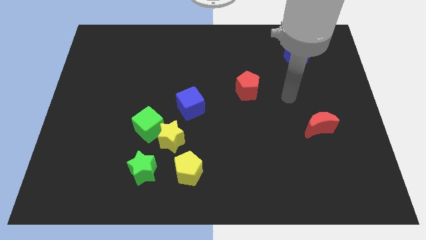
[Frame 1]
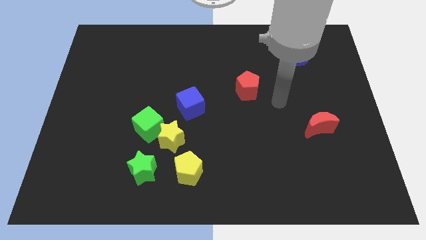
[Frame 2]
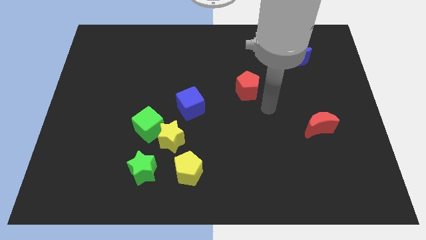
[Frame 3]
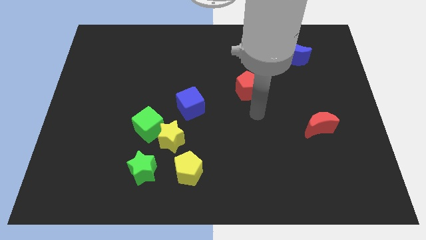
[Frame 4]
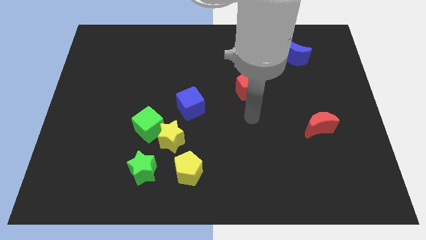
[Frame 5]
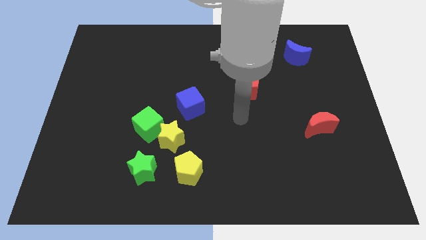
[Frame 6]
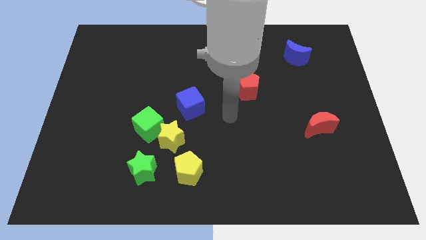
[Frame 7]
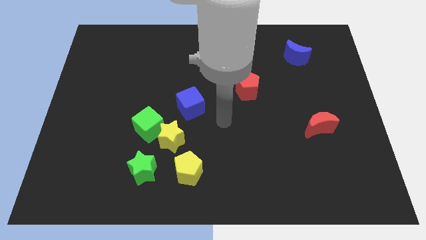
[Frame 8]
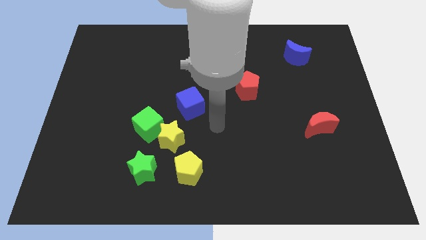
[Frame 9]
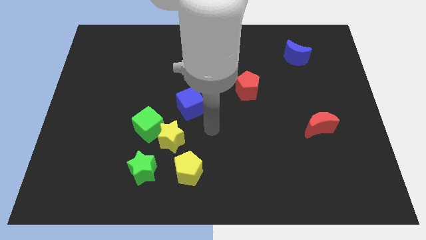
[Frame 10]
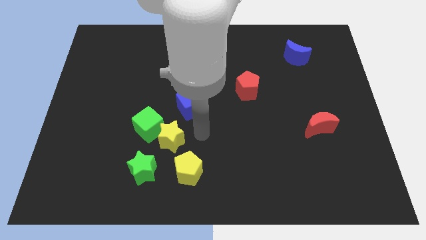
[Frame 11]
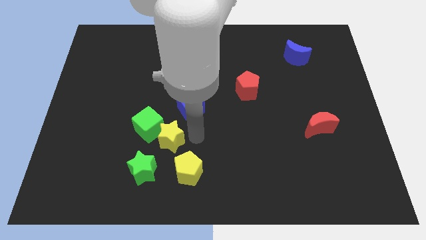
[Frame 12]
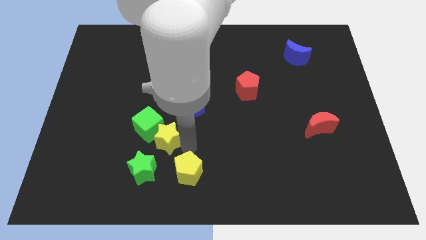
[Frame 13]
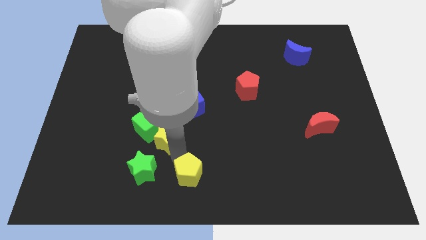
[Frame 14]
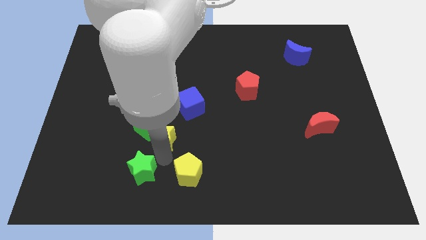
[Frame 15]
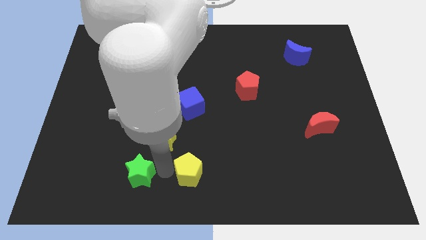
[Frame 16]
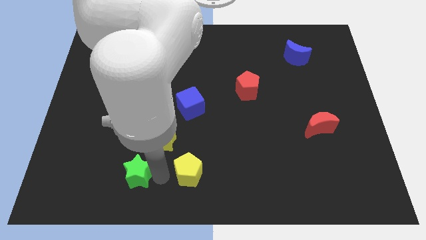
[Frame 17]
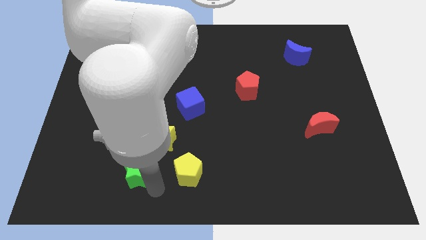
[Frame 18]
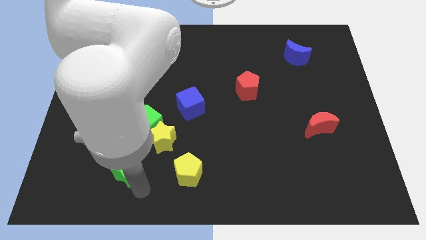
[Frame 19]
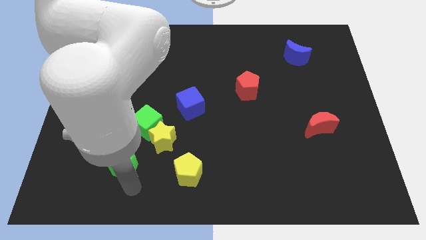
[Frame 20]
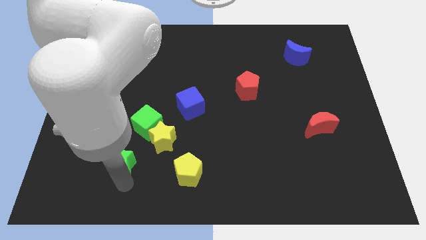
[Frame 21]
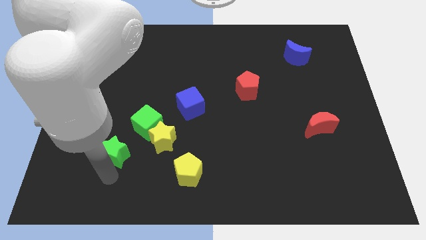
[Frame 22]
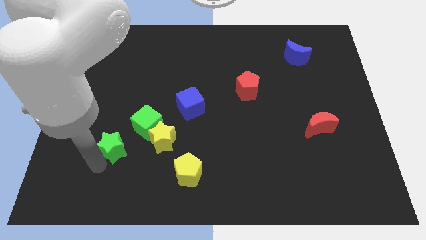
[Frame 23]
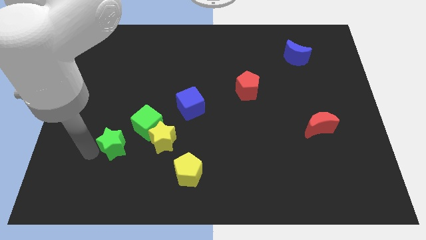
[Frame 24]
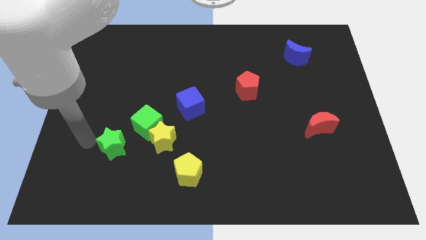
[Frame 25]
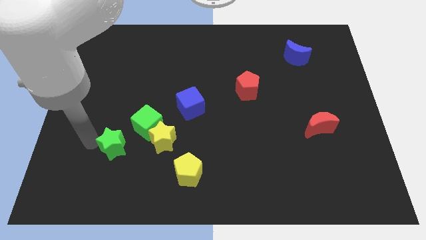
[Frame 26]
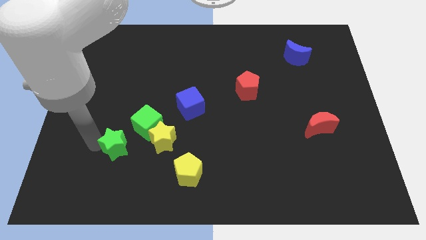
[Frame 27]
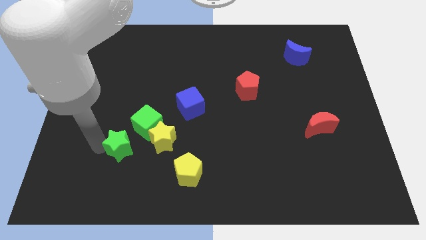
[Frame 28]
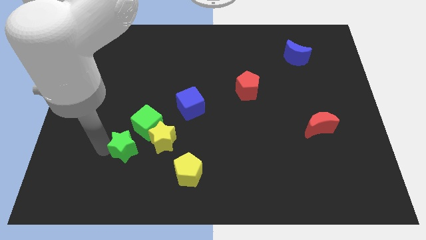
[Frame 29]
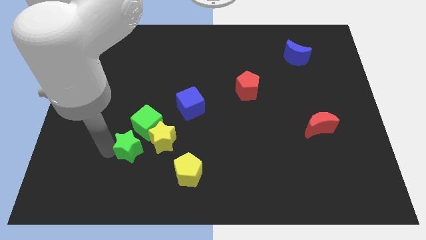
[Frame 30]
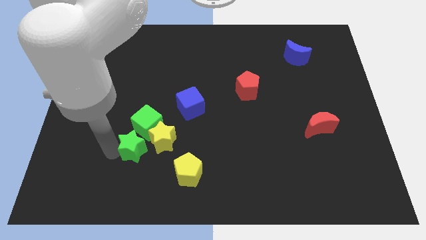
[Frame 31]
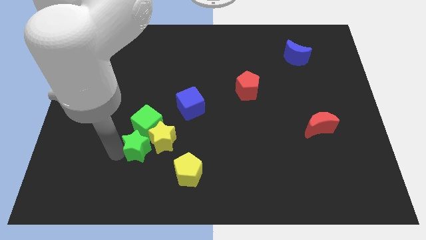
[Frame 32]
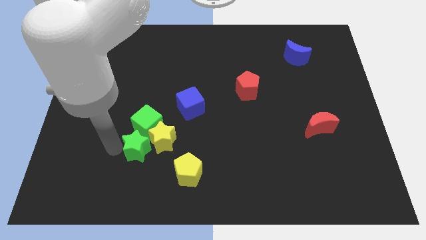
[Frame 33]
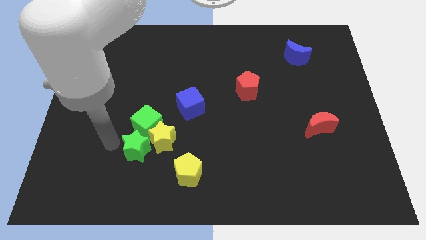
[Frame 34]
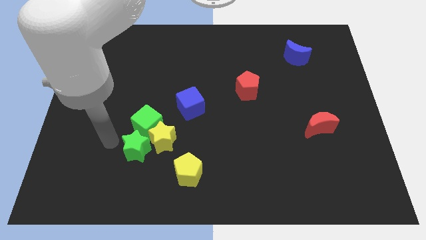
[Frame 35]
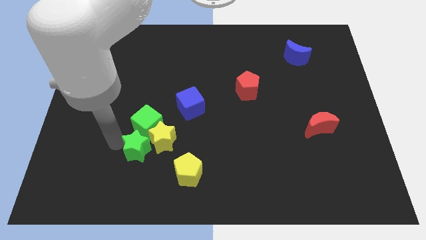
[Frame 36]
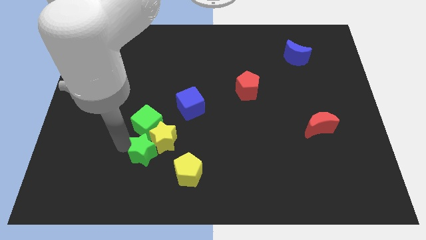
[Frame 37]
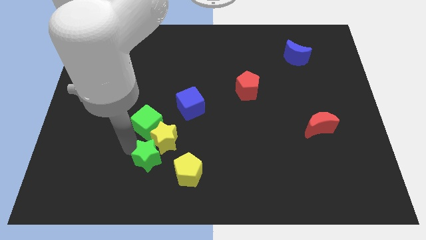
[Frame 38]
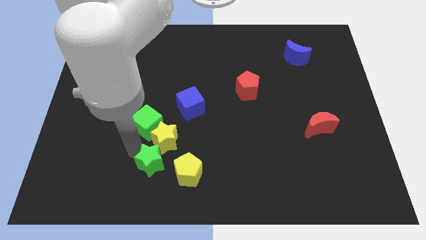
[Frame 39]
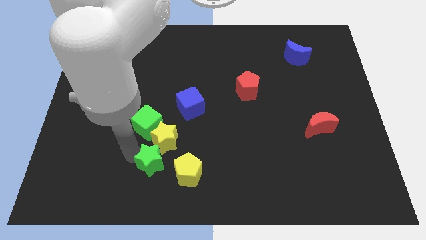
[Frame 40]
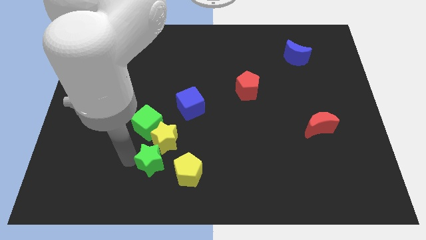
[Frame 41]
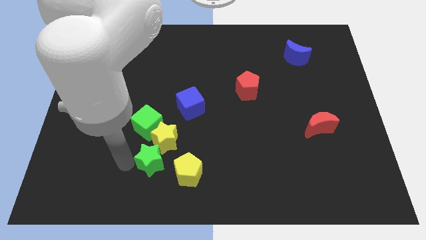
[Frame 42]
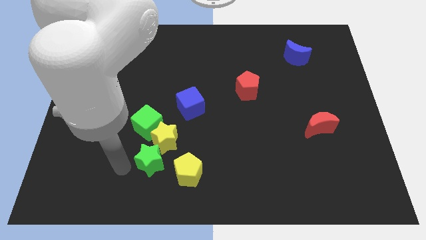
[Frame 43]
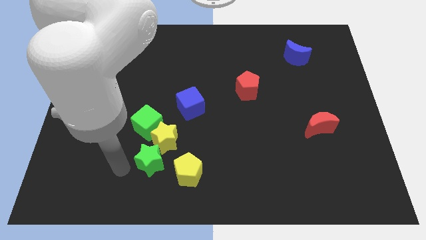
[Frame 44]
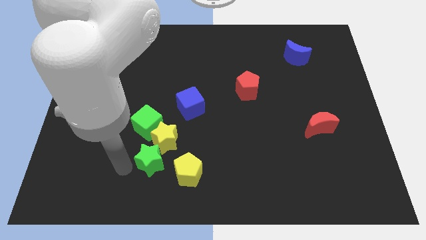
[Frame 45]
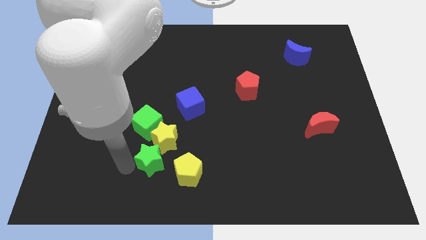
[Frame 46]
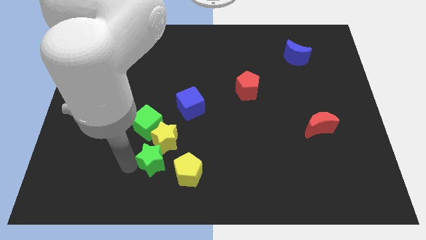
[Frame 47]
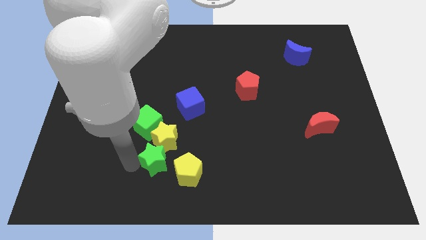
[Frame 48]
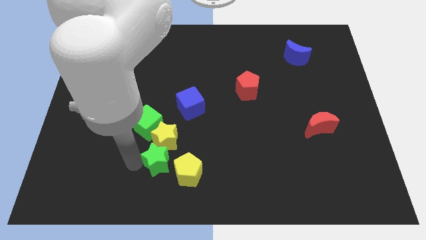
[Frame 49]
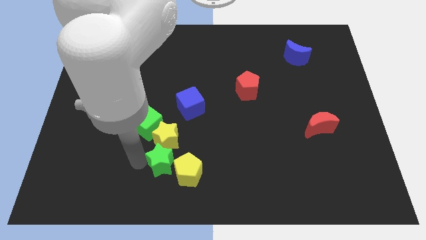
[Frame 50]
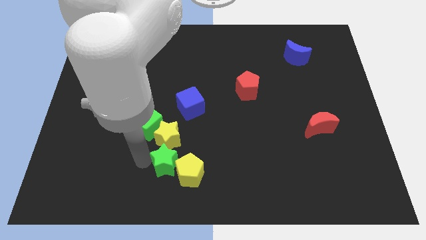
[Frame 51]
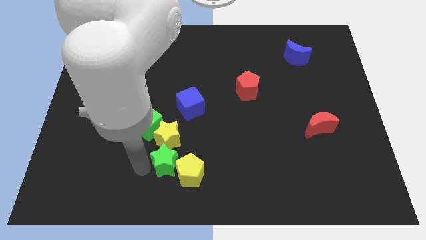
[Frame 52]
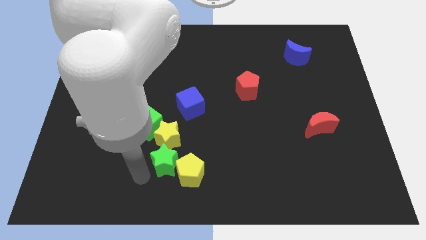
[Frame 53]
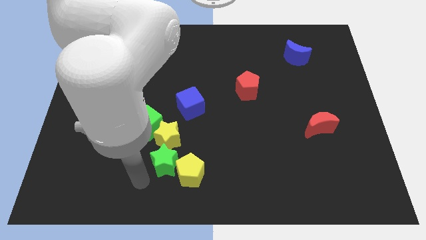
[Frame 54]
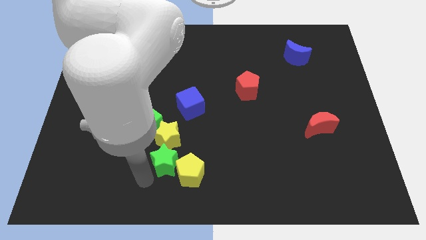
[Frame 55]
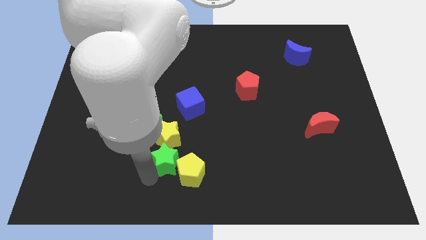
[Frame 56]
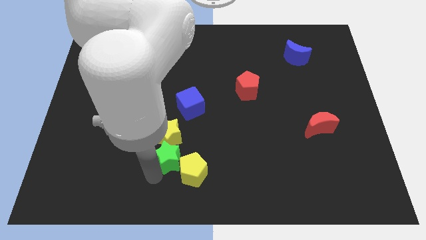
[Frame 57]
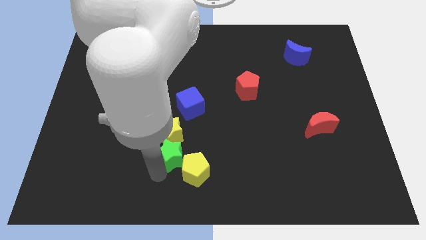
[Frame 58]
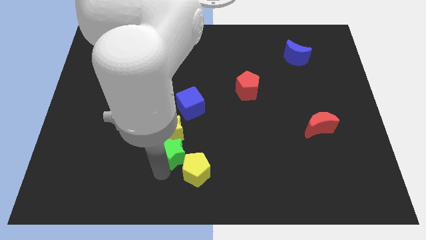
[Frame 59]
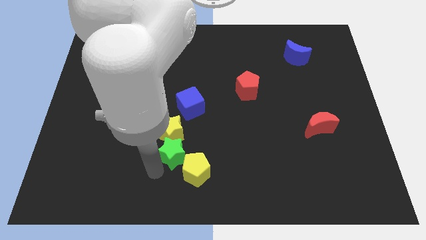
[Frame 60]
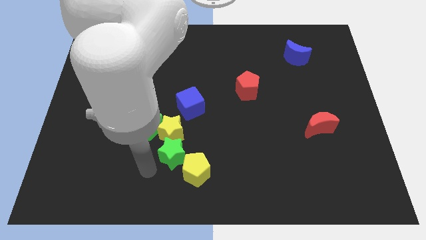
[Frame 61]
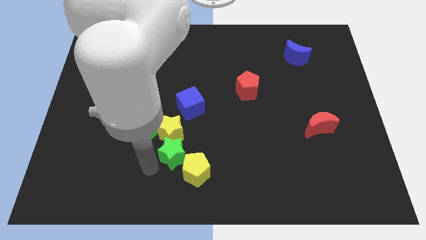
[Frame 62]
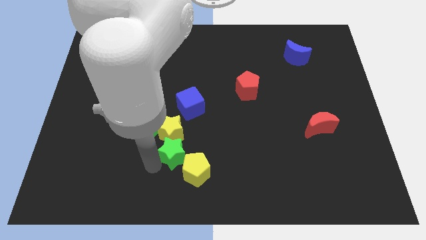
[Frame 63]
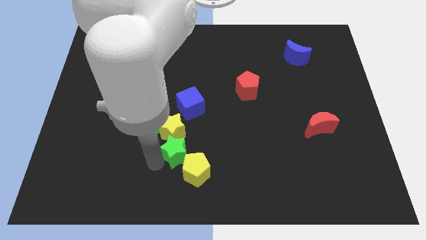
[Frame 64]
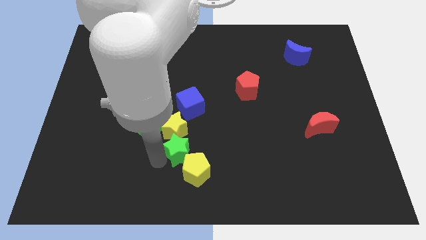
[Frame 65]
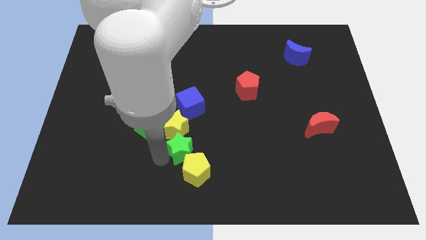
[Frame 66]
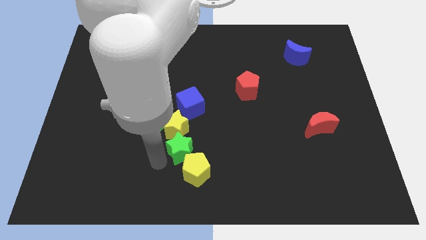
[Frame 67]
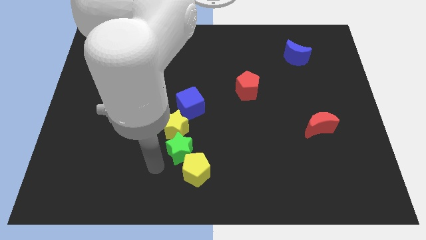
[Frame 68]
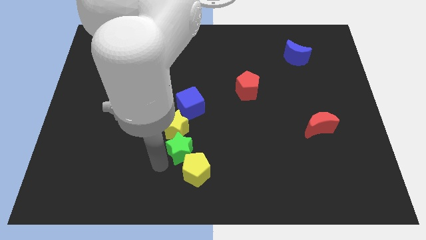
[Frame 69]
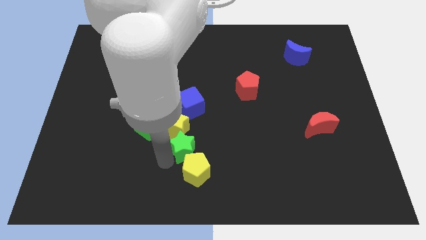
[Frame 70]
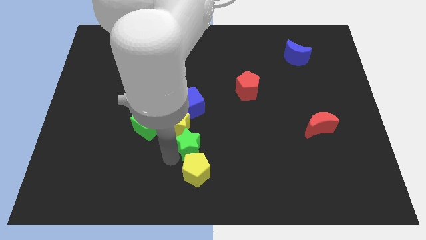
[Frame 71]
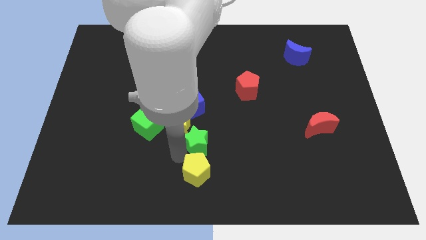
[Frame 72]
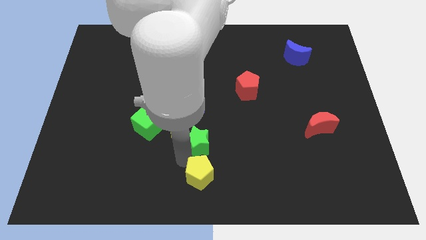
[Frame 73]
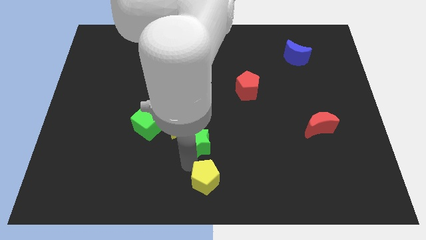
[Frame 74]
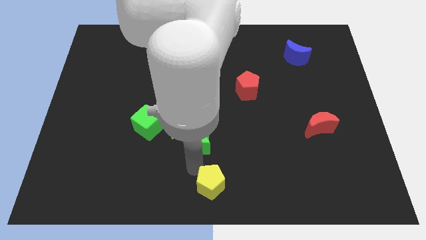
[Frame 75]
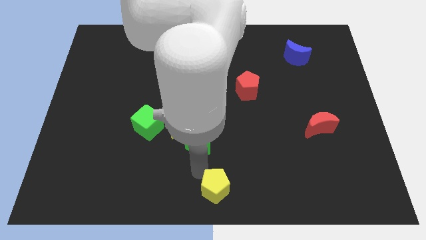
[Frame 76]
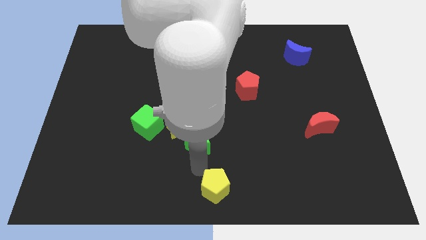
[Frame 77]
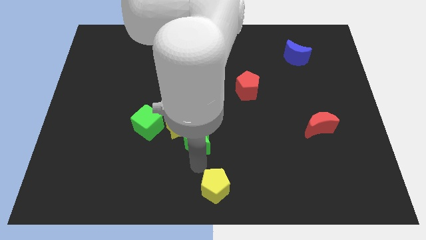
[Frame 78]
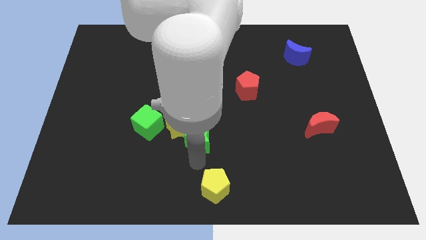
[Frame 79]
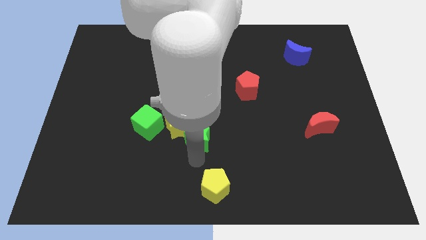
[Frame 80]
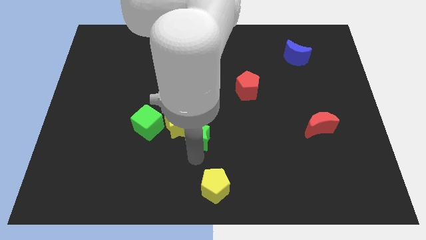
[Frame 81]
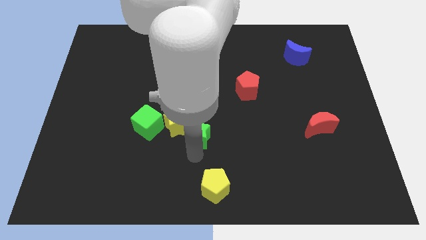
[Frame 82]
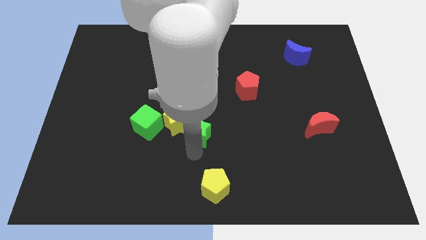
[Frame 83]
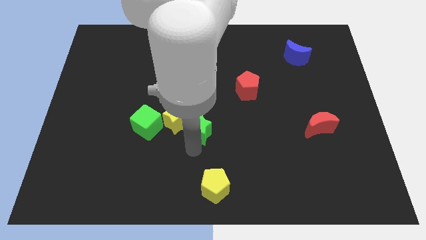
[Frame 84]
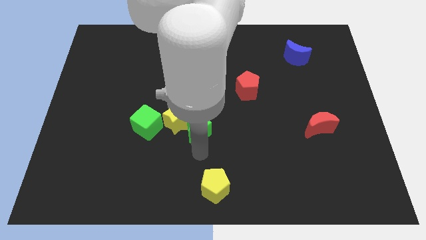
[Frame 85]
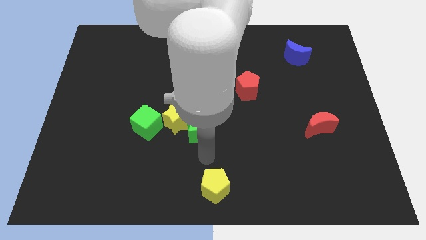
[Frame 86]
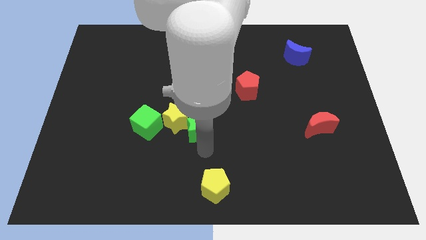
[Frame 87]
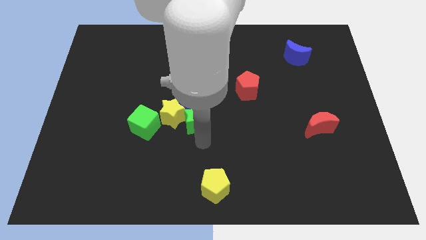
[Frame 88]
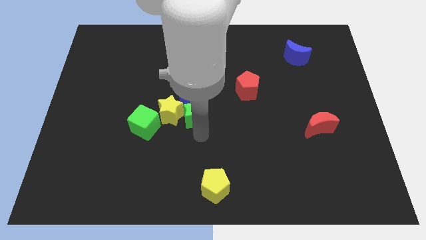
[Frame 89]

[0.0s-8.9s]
push the green star towards the blue cube
